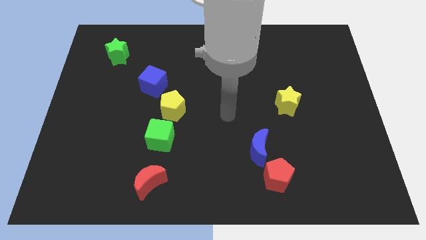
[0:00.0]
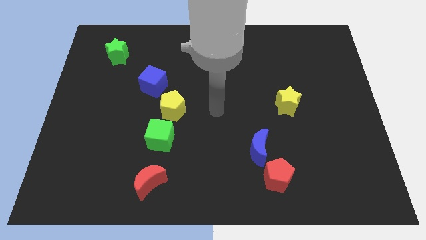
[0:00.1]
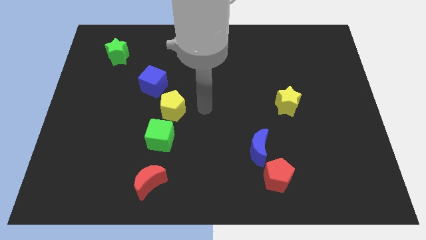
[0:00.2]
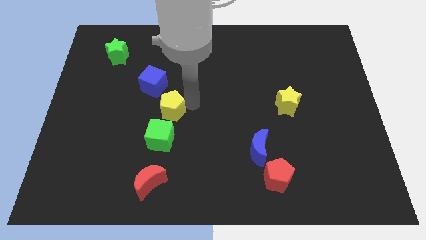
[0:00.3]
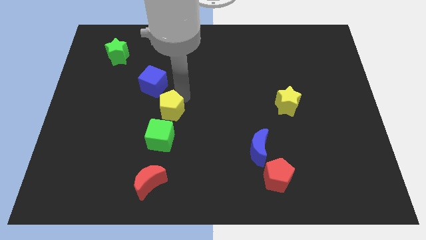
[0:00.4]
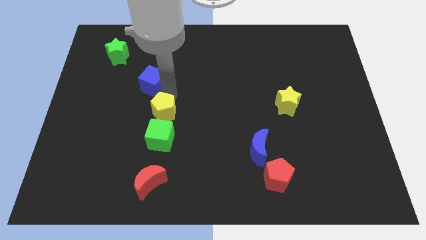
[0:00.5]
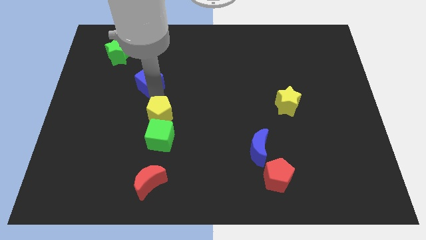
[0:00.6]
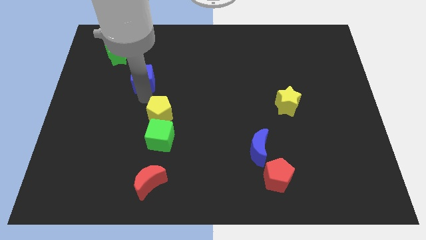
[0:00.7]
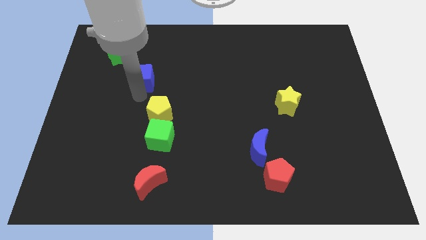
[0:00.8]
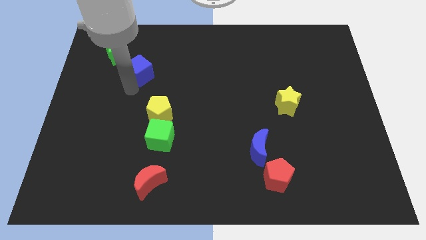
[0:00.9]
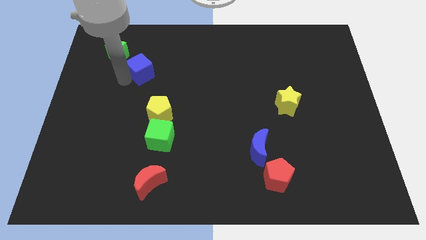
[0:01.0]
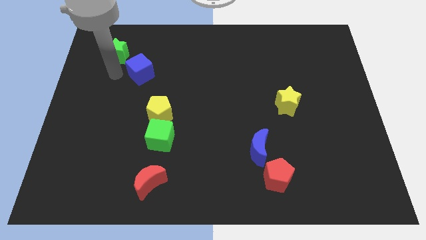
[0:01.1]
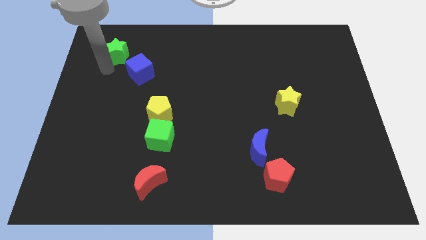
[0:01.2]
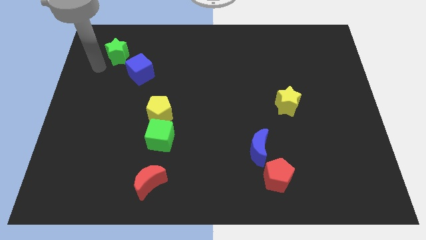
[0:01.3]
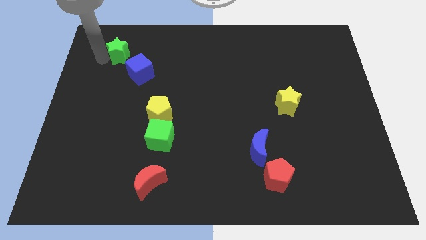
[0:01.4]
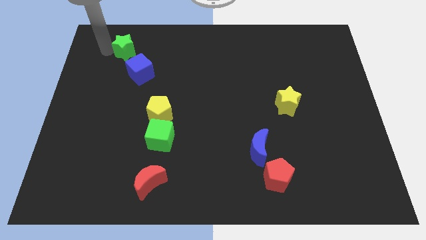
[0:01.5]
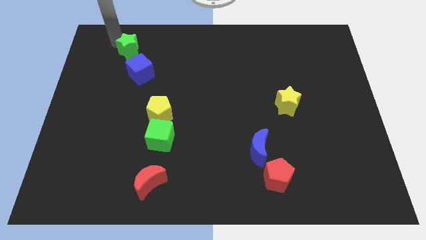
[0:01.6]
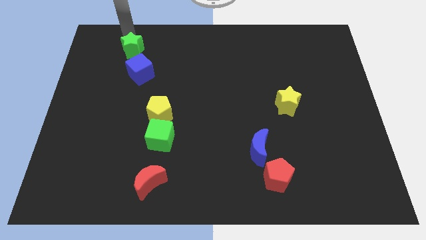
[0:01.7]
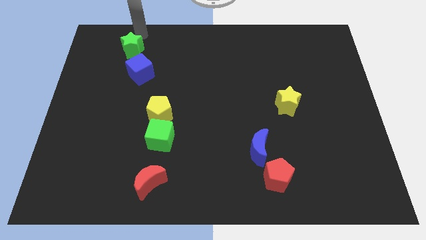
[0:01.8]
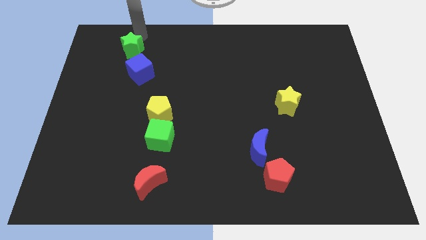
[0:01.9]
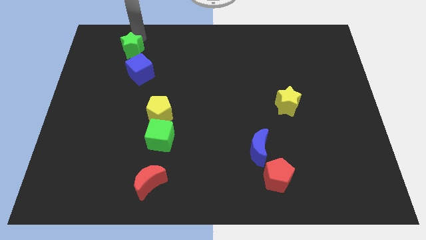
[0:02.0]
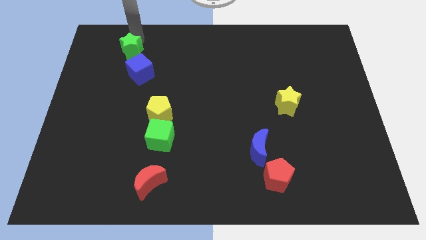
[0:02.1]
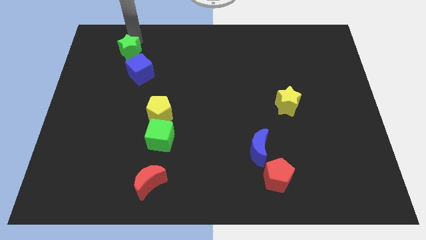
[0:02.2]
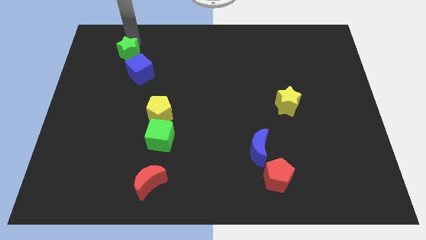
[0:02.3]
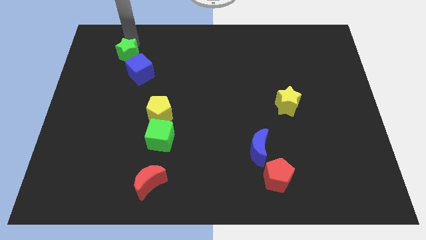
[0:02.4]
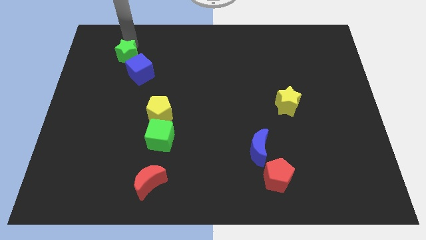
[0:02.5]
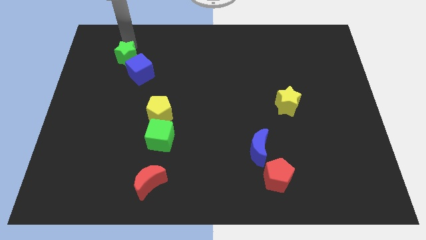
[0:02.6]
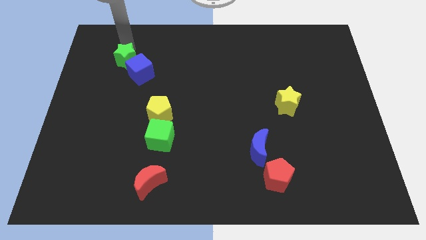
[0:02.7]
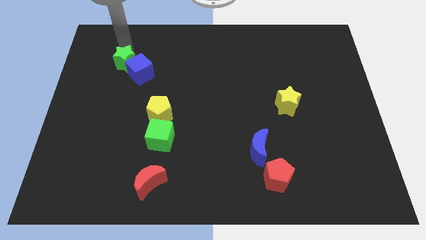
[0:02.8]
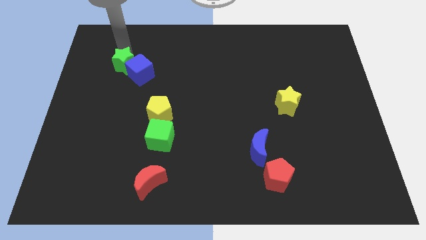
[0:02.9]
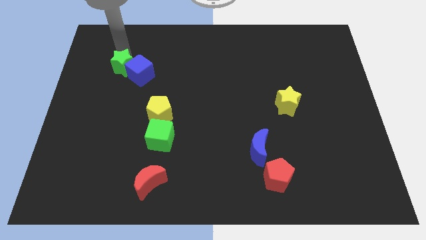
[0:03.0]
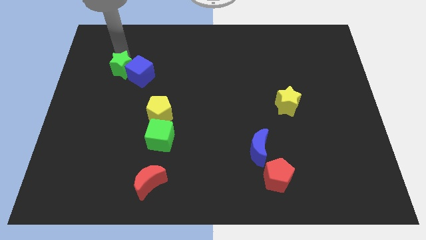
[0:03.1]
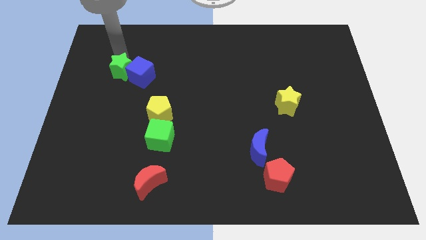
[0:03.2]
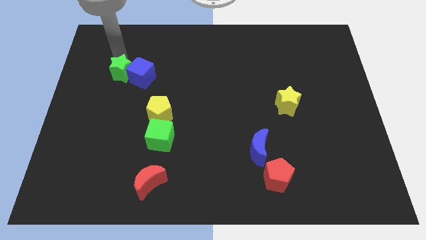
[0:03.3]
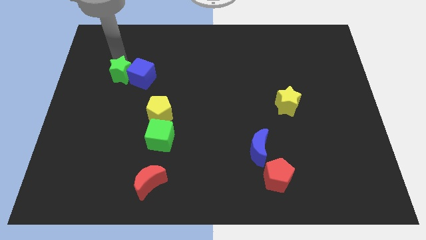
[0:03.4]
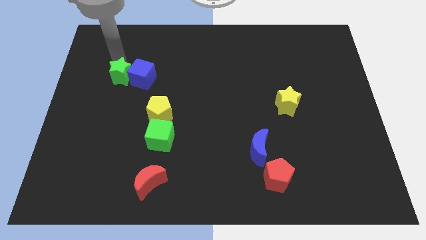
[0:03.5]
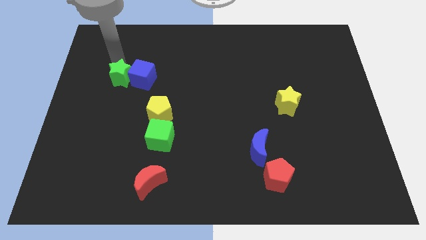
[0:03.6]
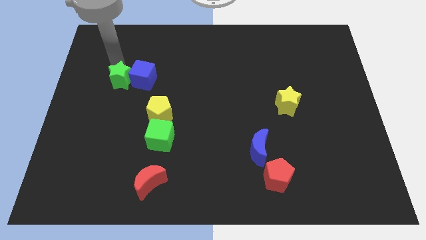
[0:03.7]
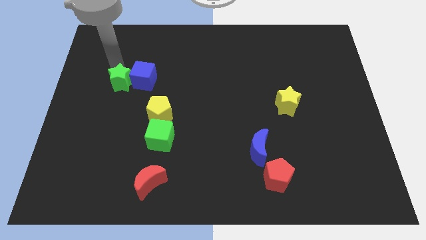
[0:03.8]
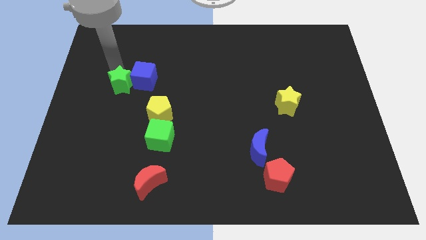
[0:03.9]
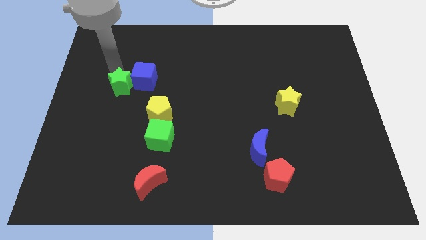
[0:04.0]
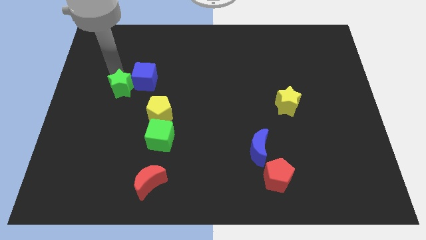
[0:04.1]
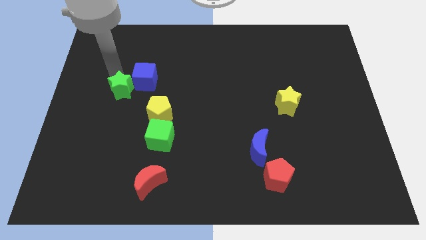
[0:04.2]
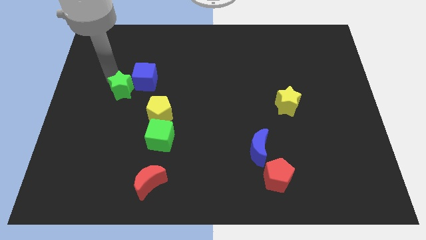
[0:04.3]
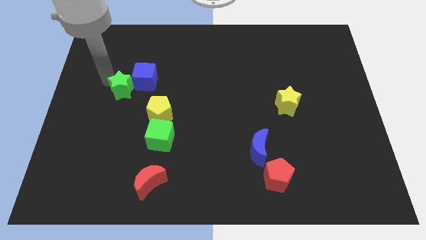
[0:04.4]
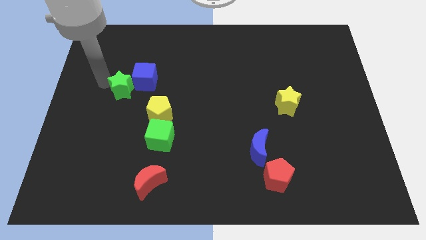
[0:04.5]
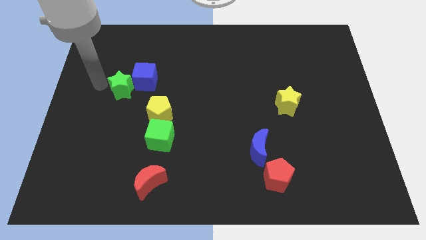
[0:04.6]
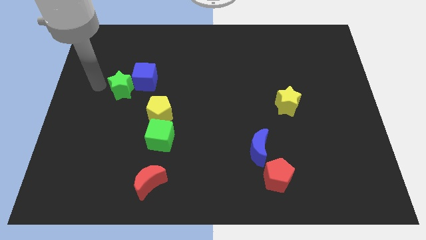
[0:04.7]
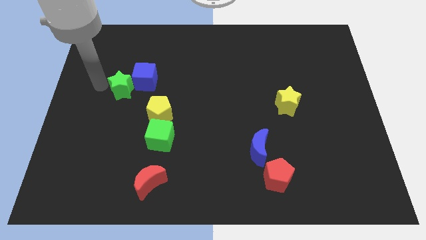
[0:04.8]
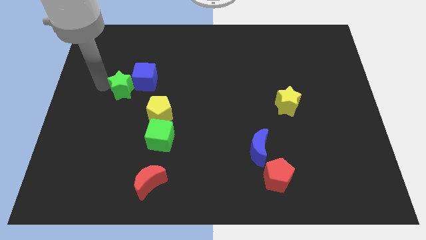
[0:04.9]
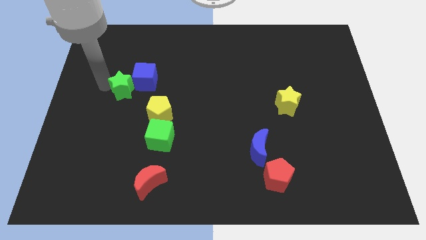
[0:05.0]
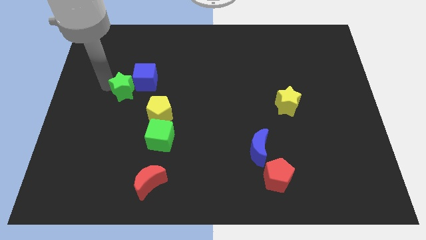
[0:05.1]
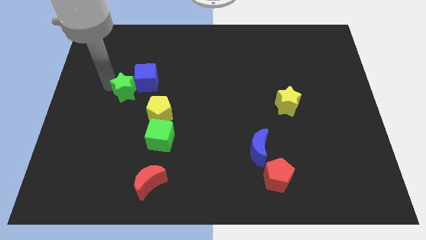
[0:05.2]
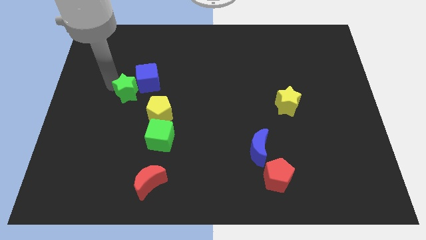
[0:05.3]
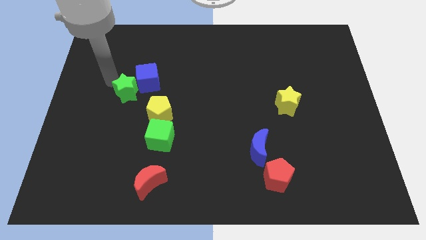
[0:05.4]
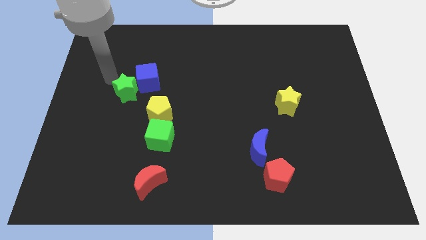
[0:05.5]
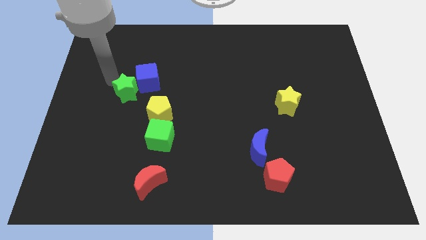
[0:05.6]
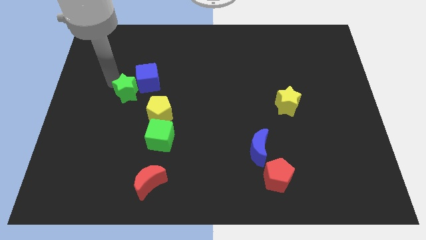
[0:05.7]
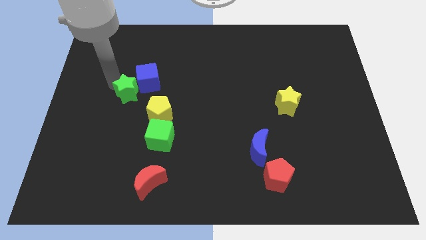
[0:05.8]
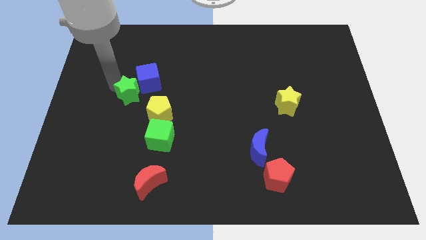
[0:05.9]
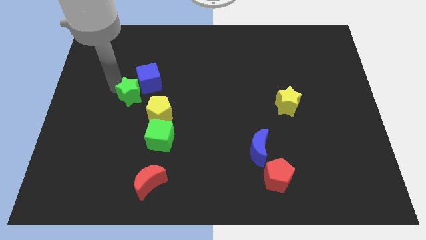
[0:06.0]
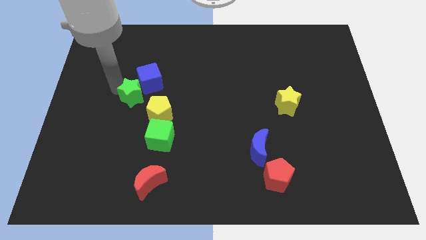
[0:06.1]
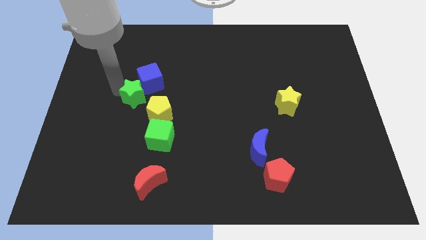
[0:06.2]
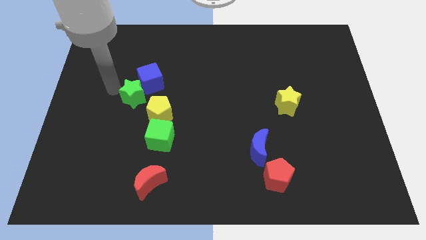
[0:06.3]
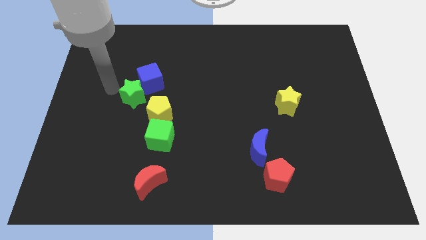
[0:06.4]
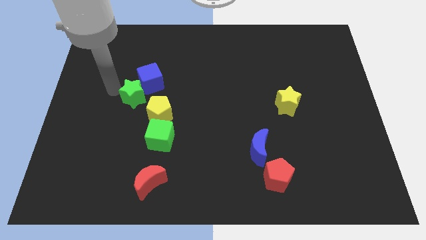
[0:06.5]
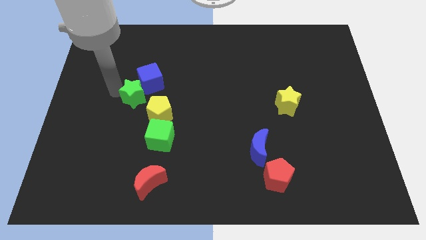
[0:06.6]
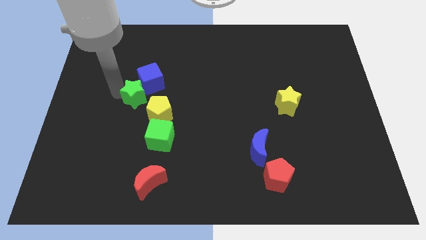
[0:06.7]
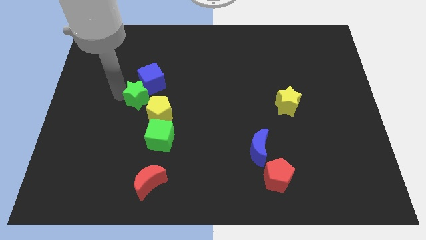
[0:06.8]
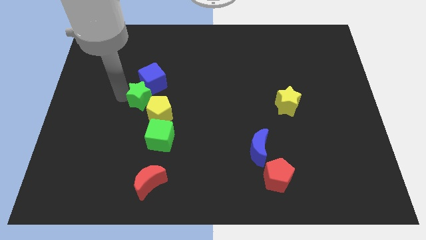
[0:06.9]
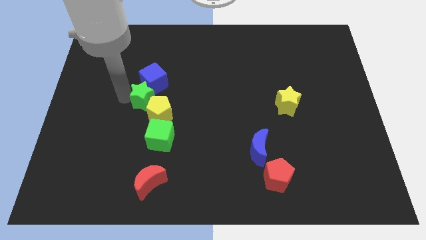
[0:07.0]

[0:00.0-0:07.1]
move the green star next to the yellow pentagon
